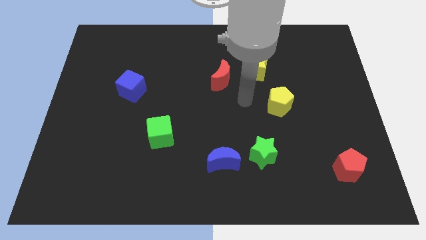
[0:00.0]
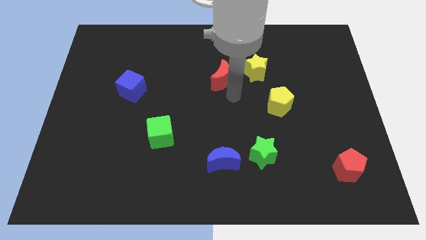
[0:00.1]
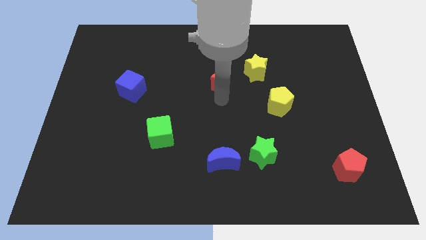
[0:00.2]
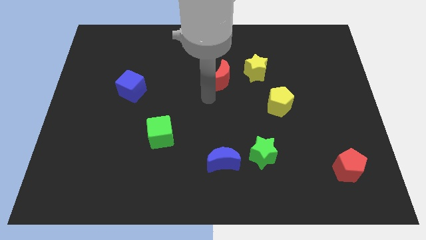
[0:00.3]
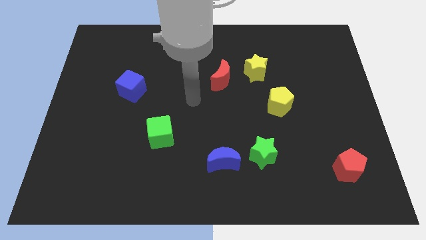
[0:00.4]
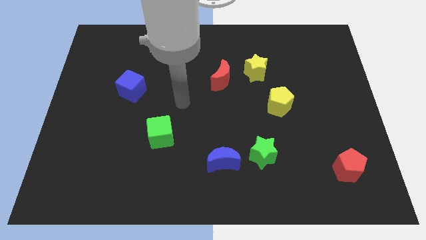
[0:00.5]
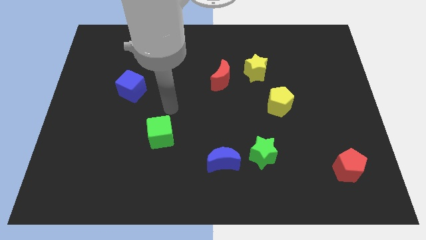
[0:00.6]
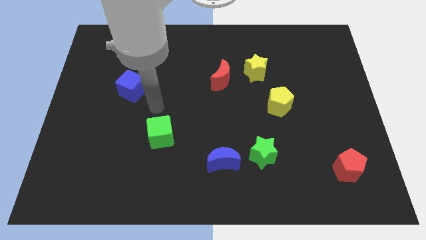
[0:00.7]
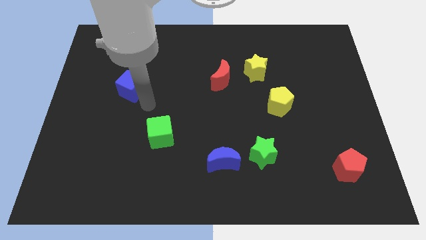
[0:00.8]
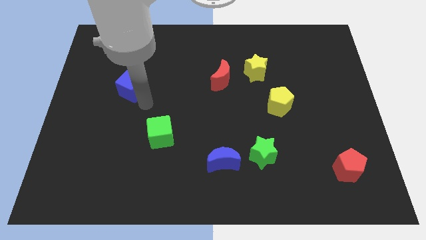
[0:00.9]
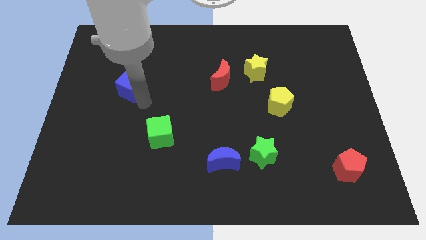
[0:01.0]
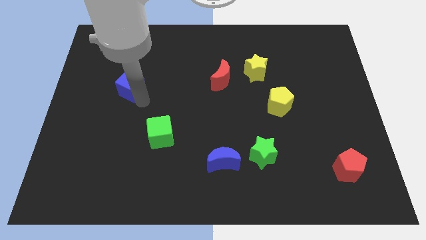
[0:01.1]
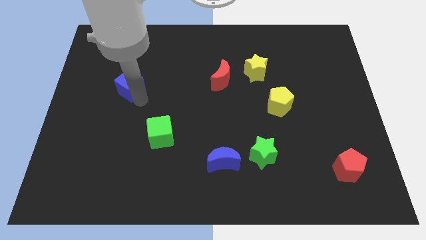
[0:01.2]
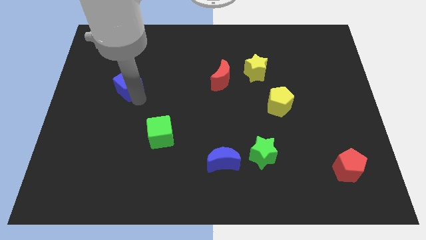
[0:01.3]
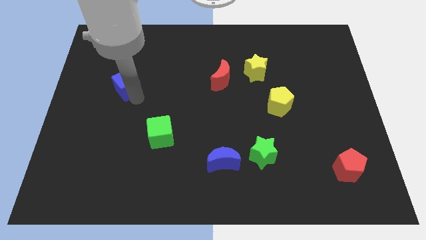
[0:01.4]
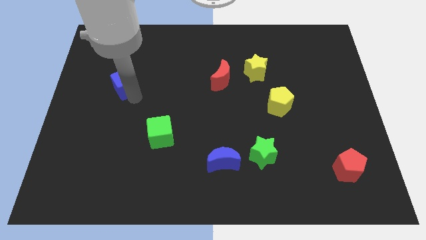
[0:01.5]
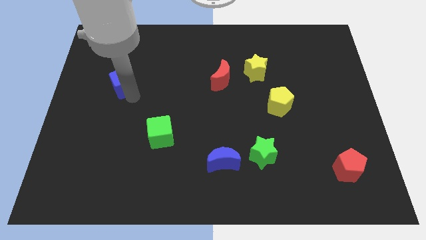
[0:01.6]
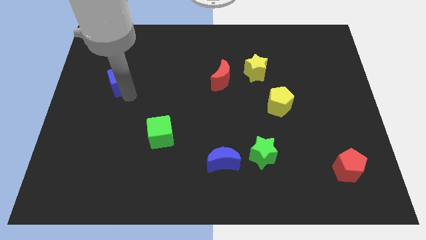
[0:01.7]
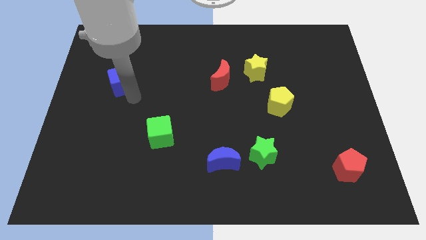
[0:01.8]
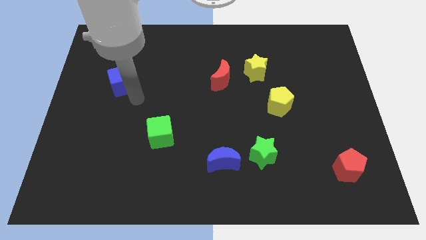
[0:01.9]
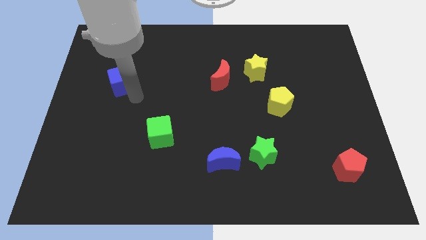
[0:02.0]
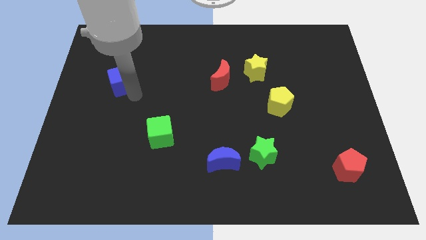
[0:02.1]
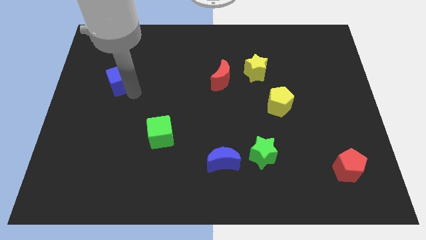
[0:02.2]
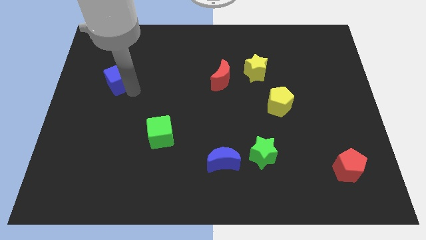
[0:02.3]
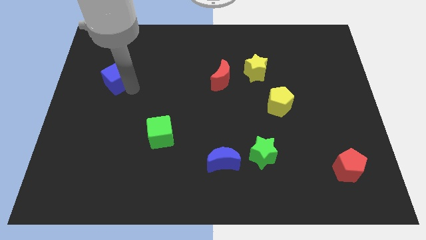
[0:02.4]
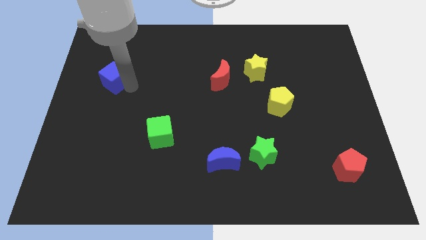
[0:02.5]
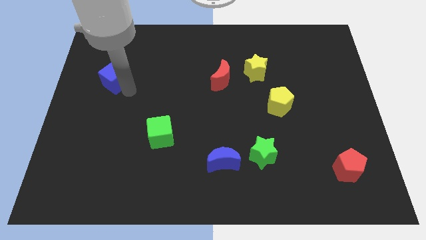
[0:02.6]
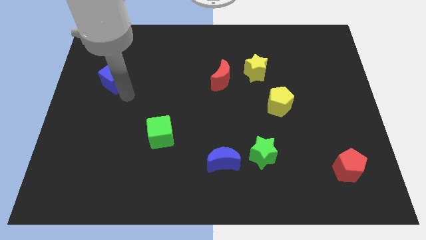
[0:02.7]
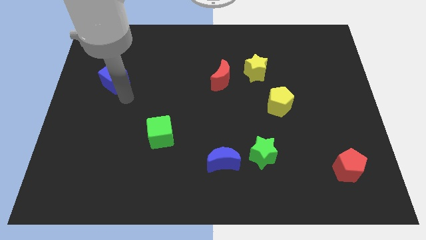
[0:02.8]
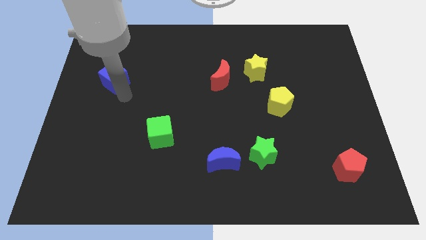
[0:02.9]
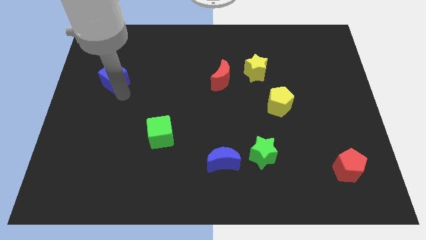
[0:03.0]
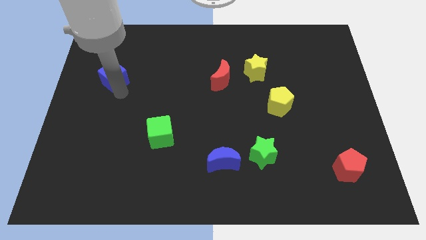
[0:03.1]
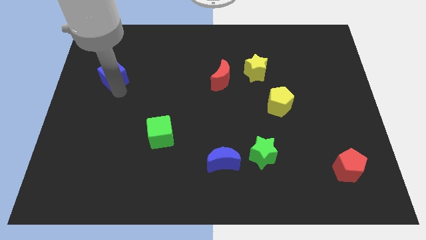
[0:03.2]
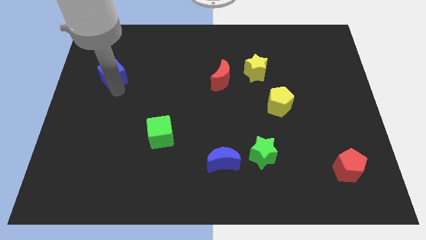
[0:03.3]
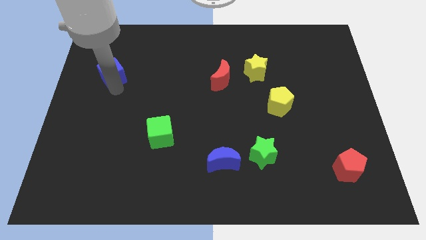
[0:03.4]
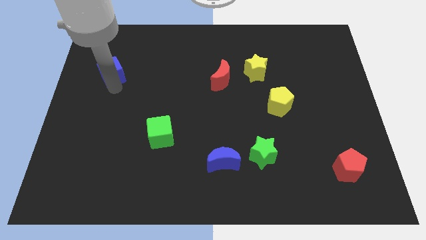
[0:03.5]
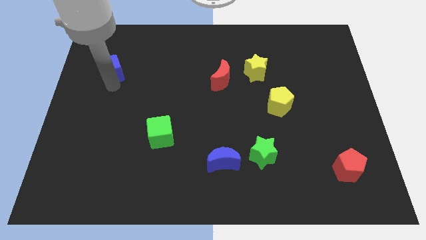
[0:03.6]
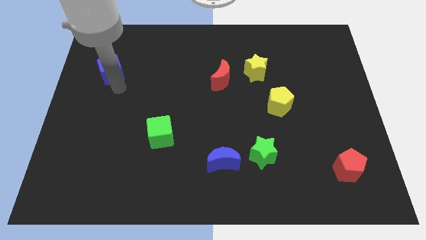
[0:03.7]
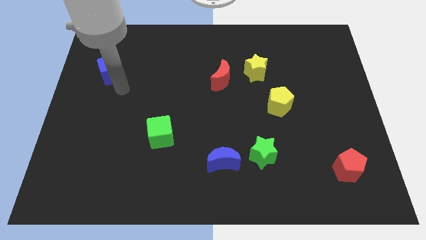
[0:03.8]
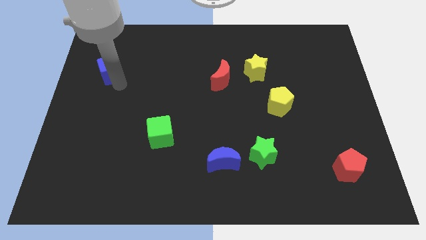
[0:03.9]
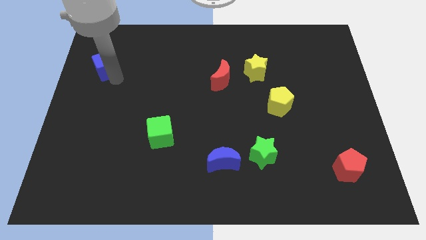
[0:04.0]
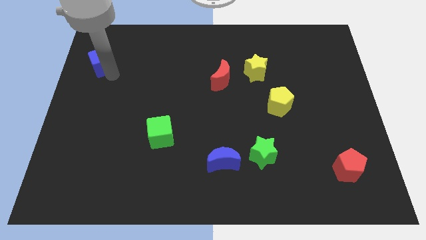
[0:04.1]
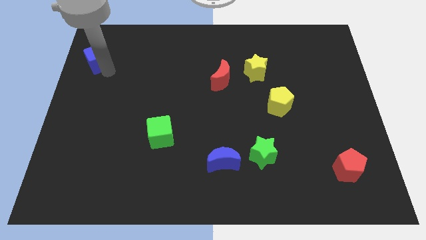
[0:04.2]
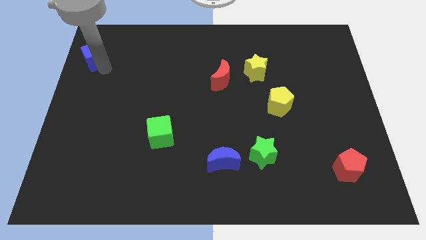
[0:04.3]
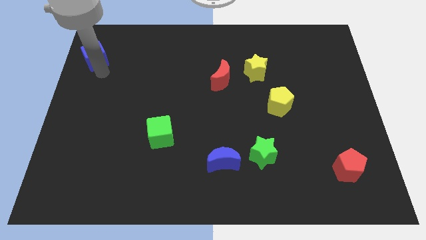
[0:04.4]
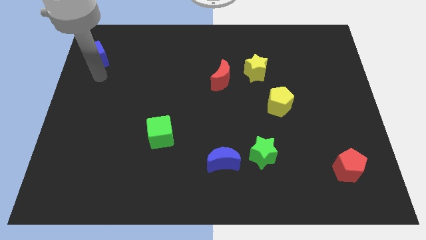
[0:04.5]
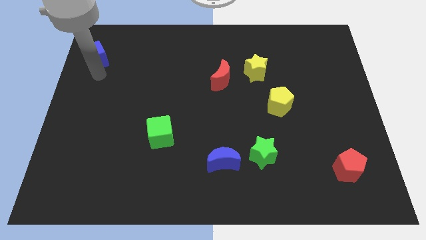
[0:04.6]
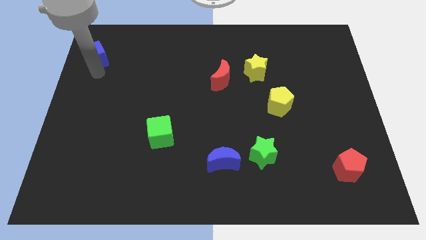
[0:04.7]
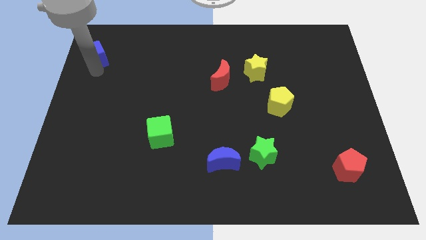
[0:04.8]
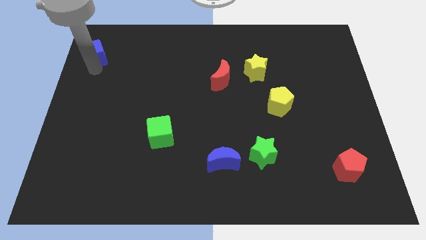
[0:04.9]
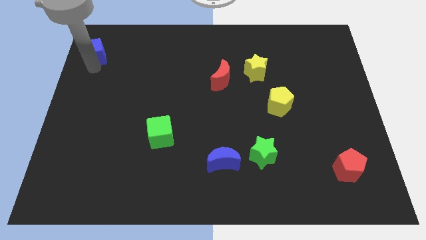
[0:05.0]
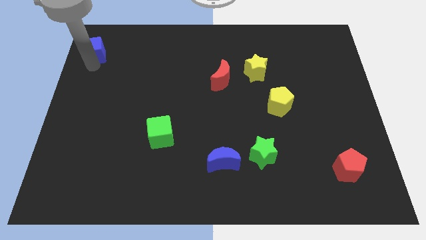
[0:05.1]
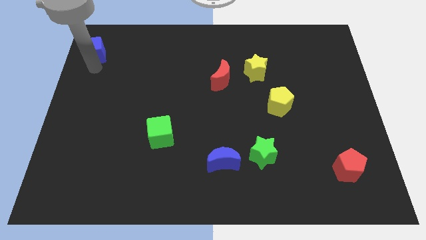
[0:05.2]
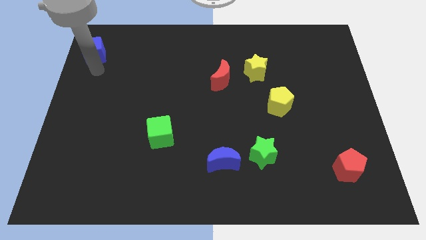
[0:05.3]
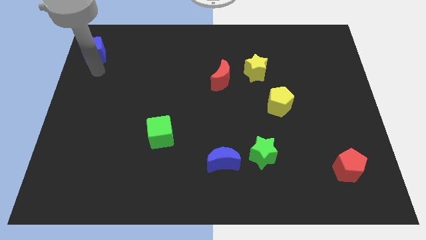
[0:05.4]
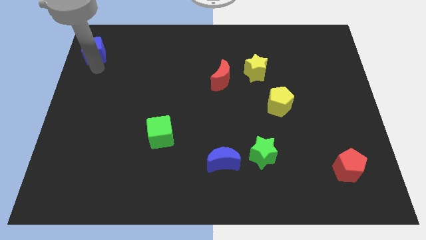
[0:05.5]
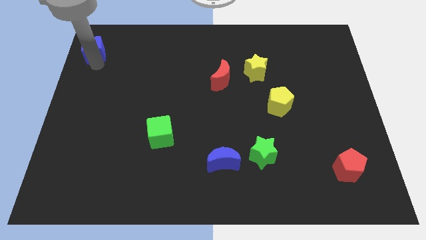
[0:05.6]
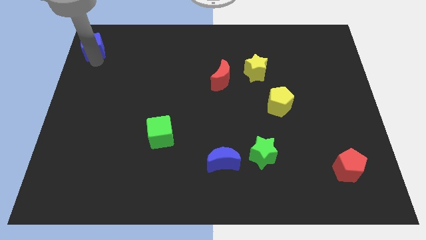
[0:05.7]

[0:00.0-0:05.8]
put the blue cube to the upper left corner

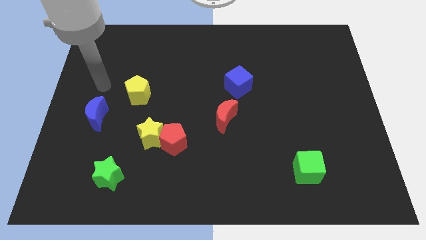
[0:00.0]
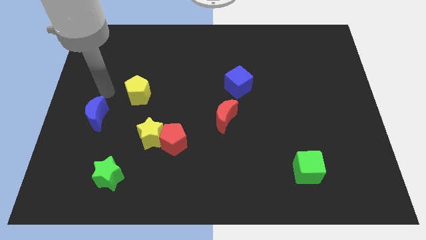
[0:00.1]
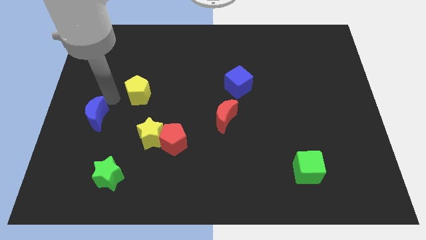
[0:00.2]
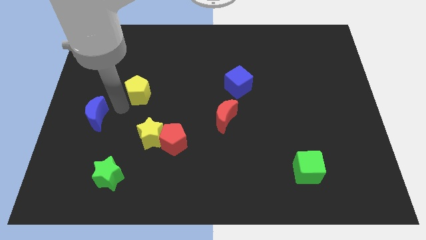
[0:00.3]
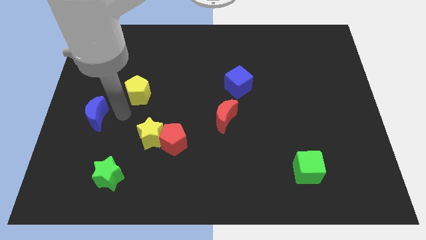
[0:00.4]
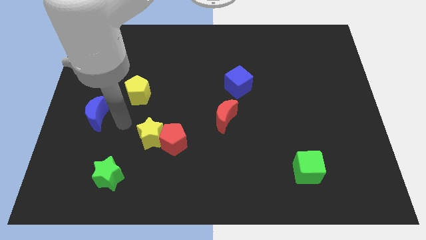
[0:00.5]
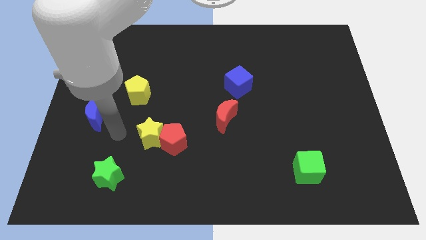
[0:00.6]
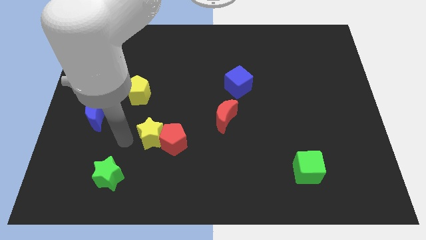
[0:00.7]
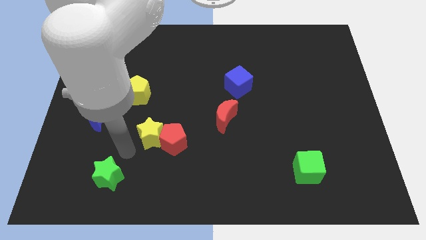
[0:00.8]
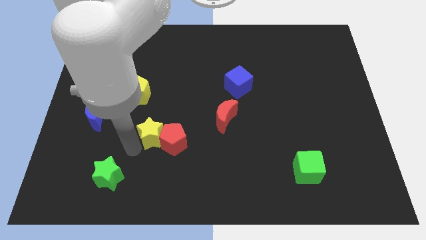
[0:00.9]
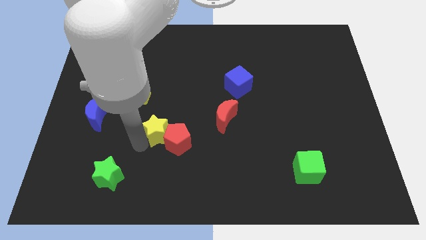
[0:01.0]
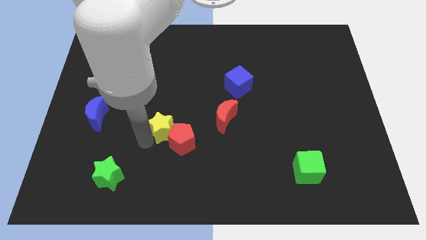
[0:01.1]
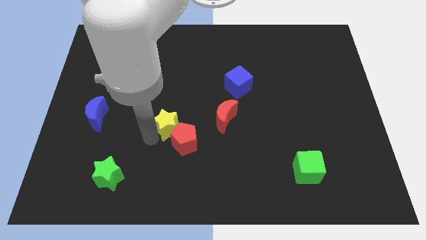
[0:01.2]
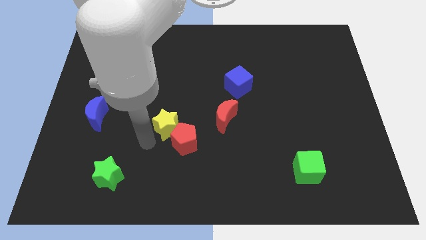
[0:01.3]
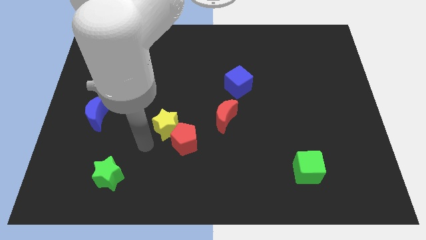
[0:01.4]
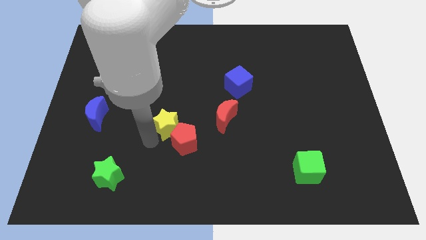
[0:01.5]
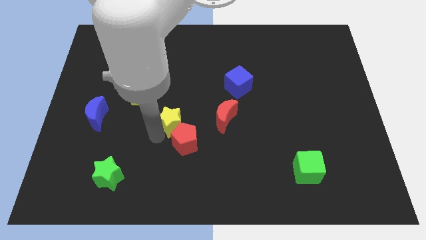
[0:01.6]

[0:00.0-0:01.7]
push the yellow star to the center of the board
